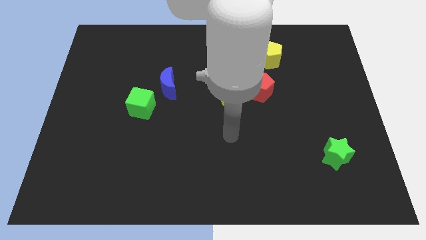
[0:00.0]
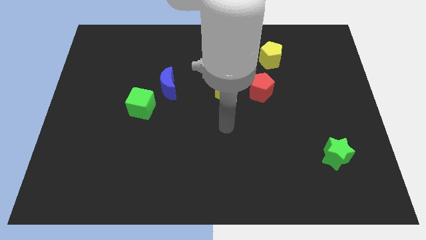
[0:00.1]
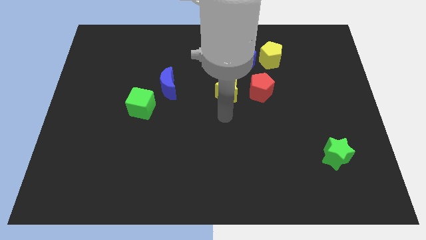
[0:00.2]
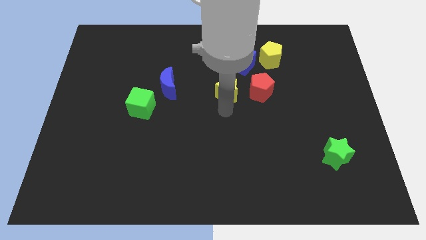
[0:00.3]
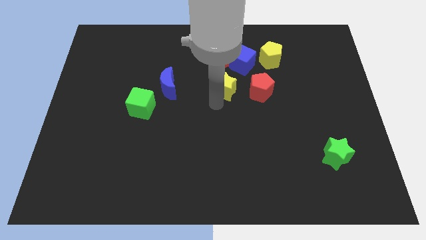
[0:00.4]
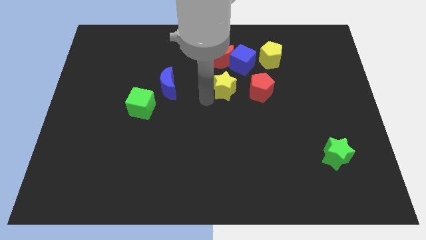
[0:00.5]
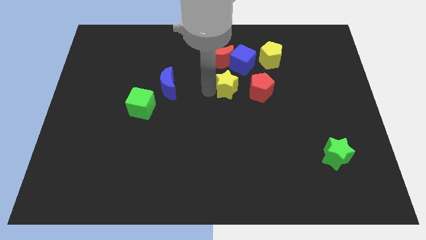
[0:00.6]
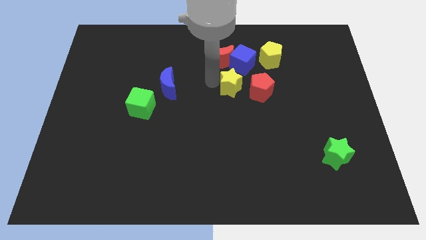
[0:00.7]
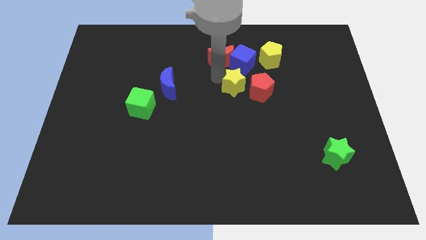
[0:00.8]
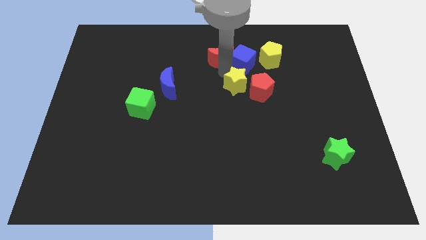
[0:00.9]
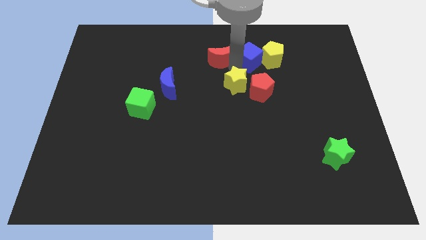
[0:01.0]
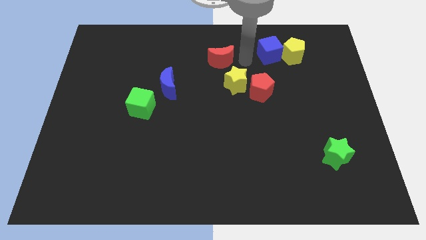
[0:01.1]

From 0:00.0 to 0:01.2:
move the red moon away from the blue cube

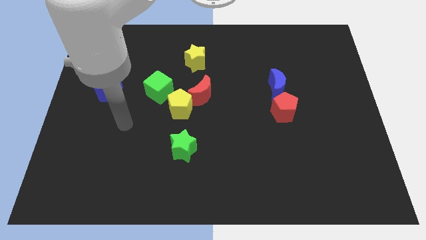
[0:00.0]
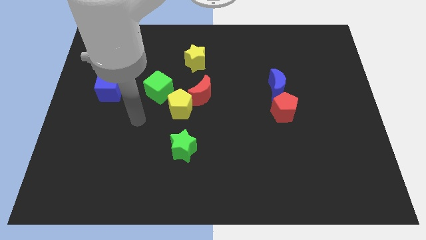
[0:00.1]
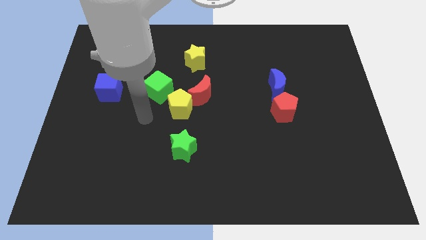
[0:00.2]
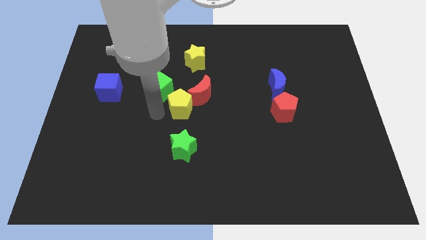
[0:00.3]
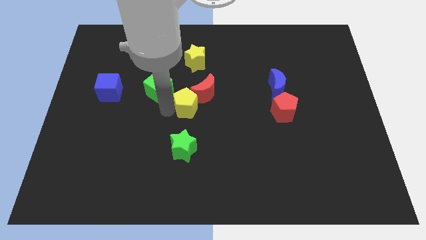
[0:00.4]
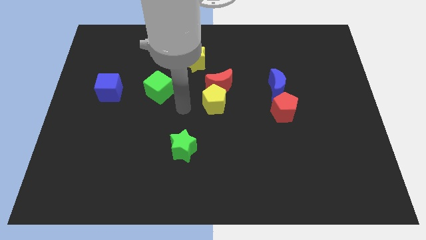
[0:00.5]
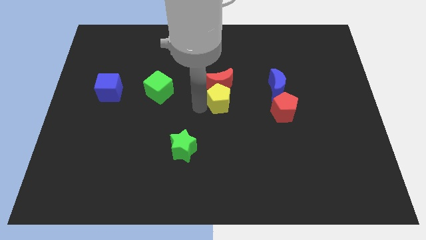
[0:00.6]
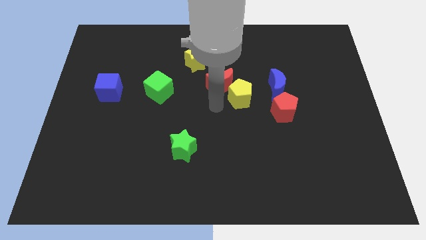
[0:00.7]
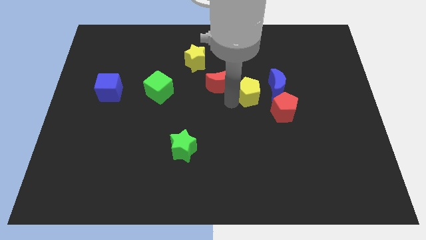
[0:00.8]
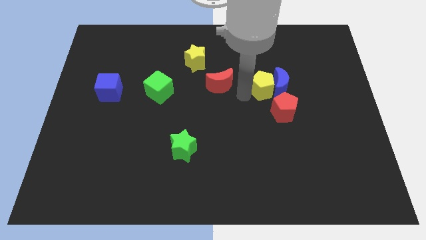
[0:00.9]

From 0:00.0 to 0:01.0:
separate the red moon from the yellow pentagon

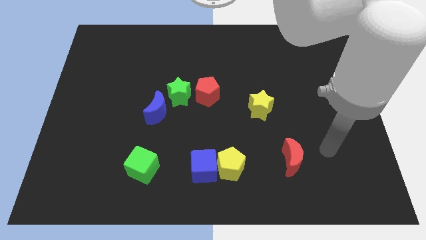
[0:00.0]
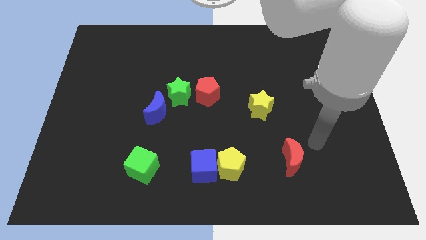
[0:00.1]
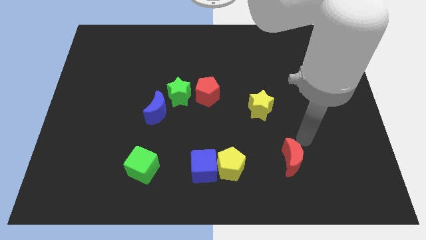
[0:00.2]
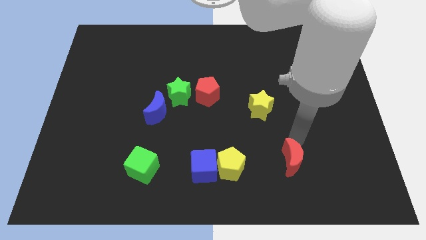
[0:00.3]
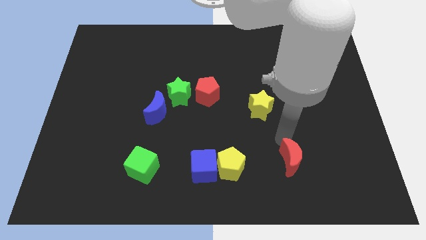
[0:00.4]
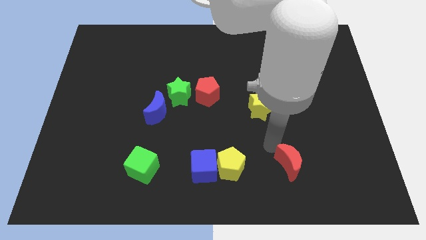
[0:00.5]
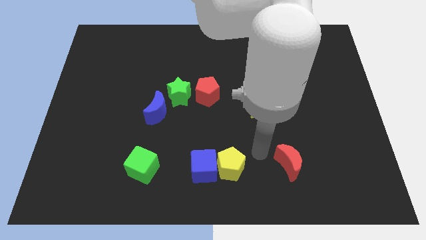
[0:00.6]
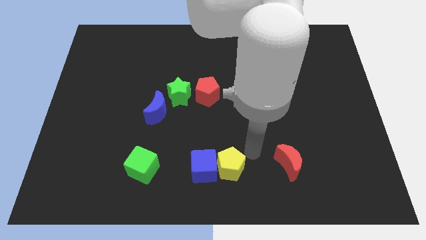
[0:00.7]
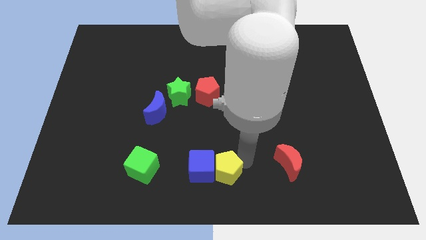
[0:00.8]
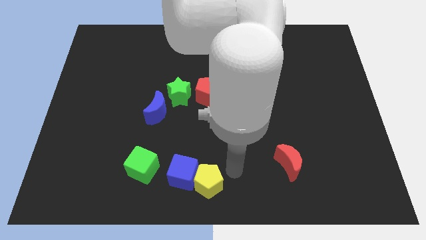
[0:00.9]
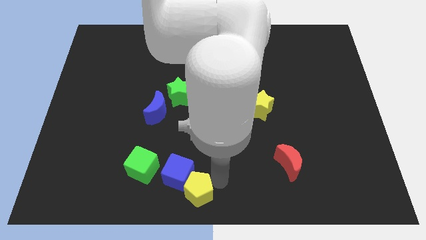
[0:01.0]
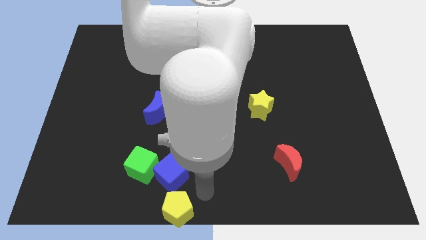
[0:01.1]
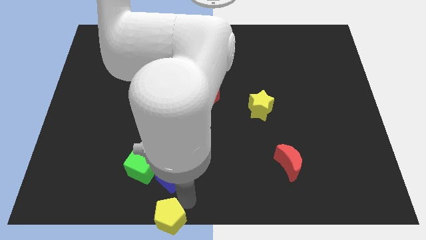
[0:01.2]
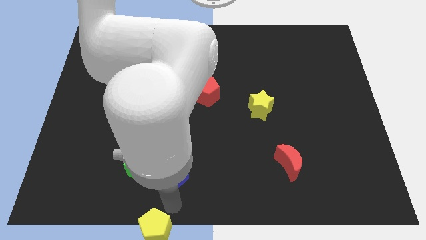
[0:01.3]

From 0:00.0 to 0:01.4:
move the blue cube away from the yellow pentagon

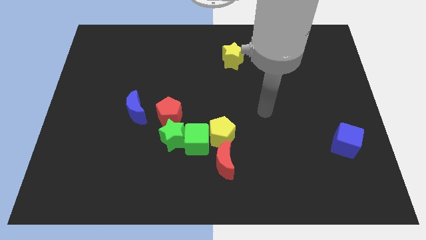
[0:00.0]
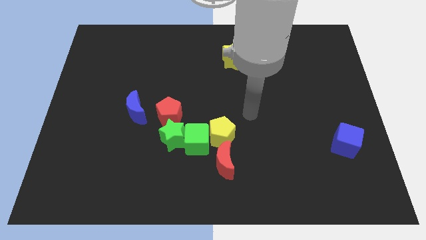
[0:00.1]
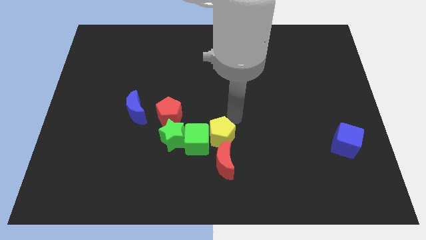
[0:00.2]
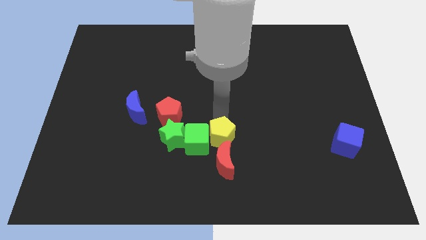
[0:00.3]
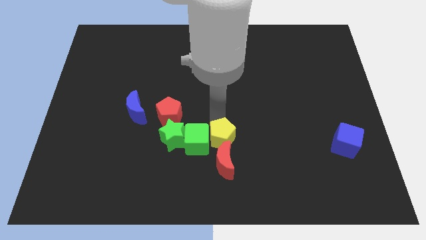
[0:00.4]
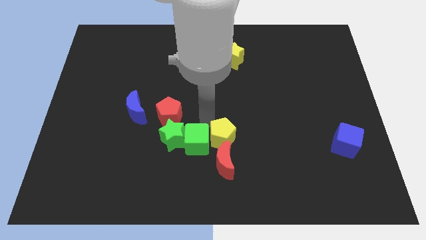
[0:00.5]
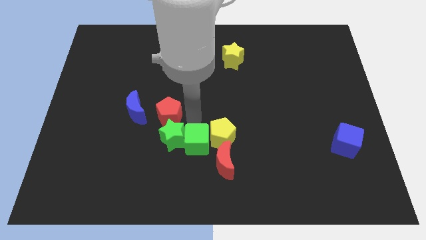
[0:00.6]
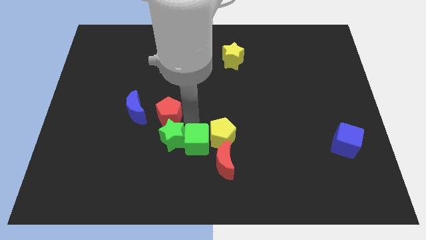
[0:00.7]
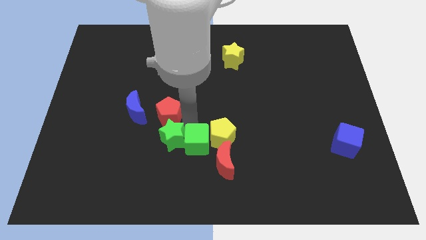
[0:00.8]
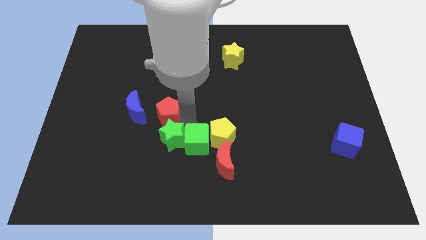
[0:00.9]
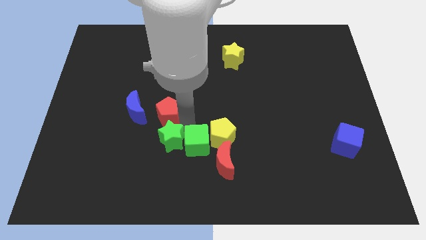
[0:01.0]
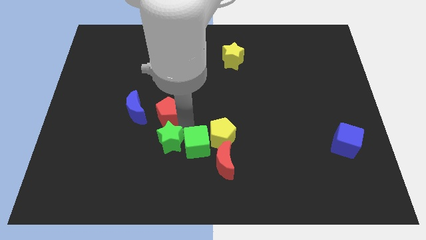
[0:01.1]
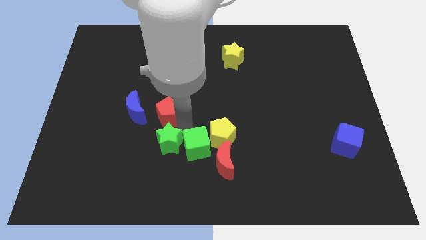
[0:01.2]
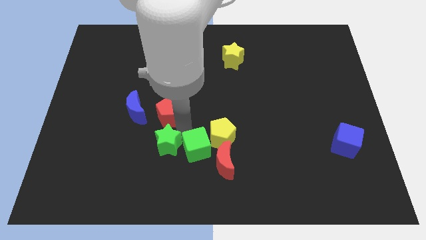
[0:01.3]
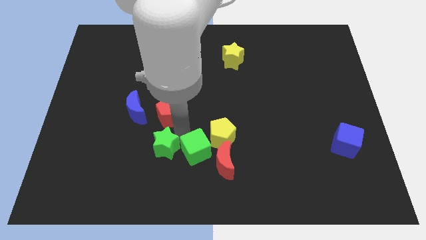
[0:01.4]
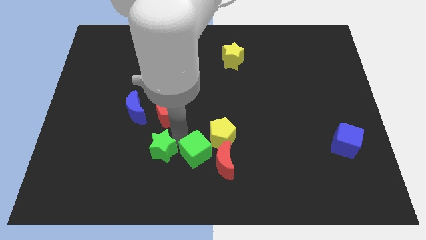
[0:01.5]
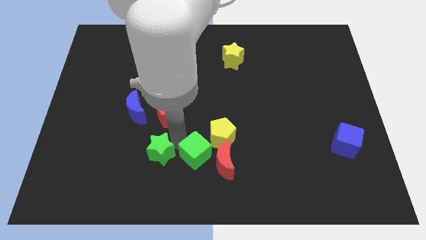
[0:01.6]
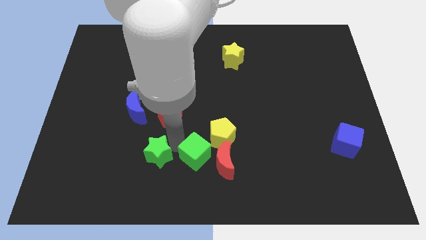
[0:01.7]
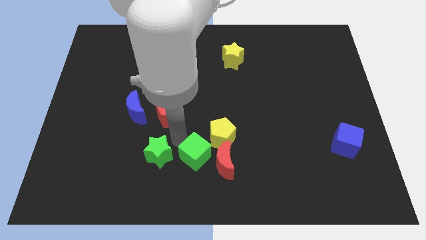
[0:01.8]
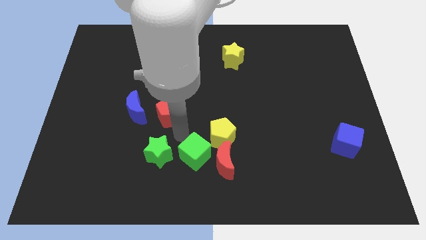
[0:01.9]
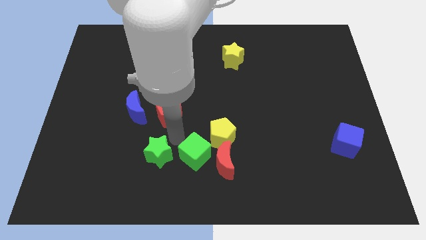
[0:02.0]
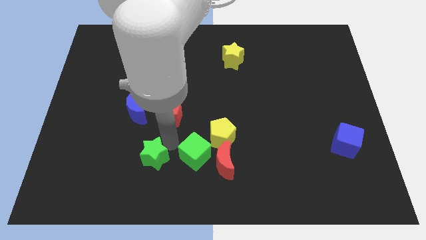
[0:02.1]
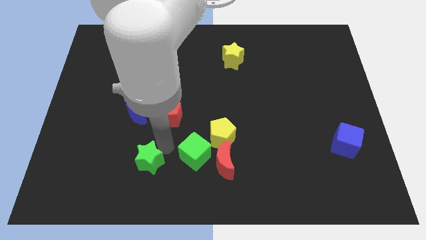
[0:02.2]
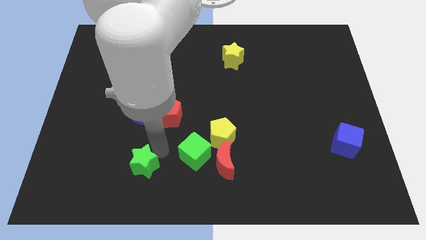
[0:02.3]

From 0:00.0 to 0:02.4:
pull the green star apart from the green cube and red pentagon

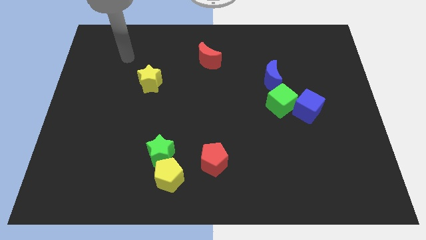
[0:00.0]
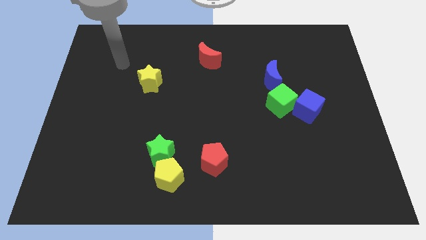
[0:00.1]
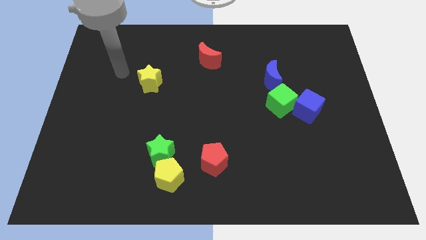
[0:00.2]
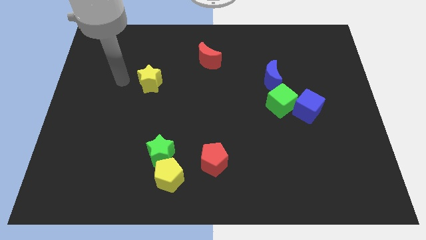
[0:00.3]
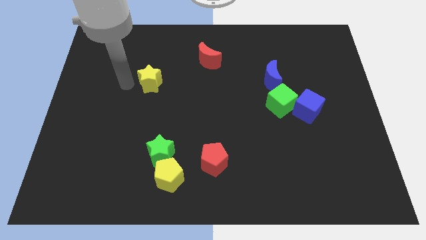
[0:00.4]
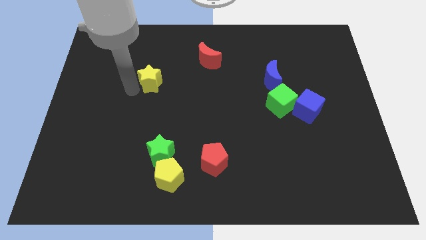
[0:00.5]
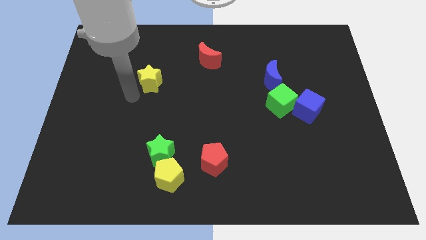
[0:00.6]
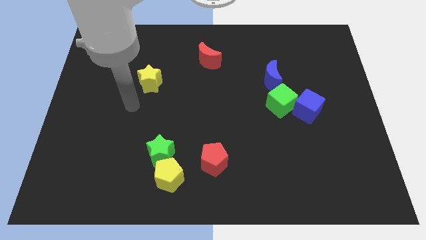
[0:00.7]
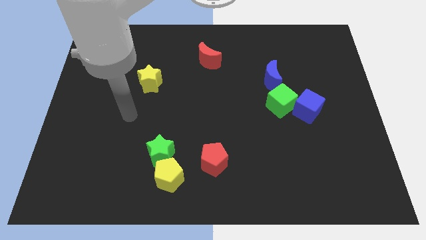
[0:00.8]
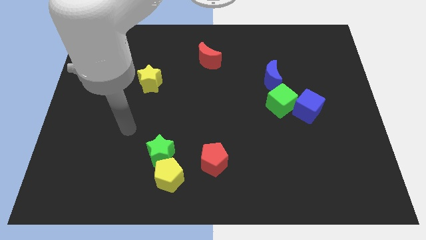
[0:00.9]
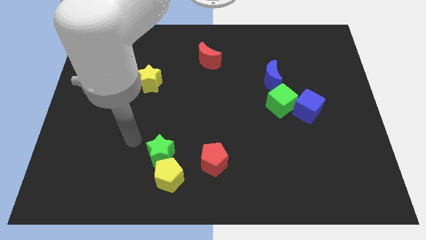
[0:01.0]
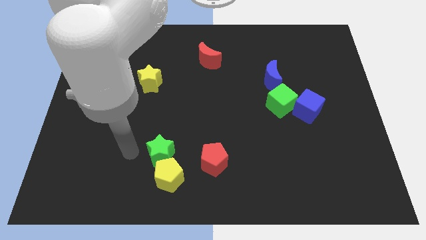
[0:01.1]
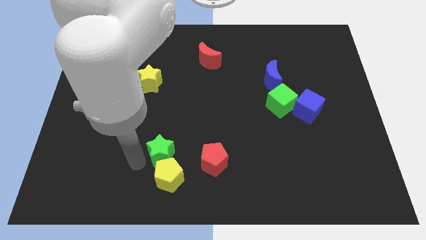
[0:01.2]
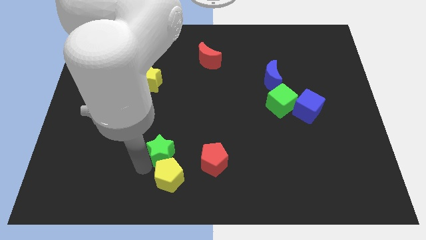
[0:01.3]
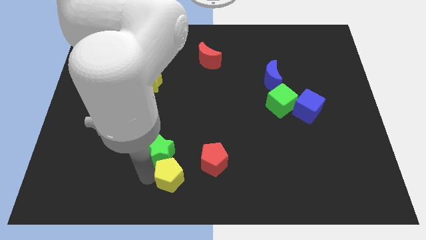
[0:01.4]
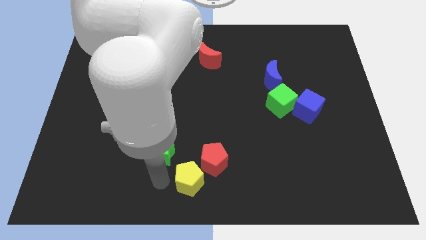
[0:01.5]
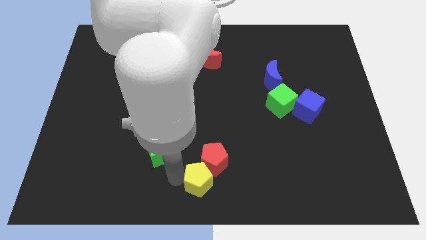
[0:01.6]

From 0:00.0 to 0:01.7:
pull the green star apart from the yellow pentagon

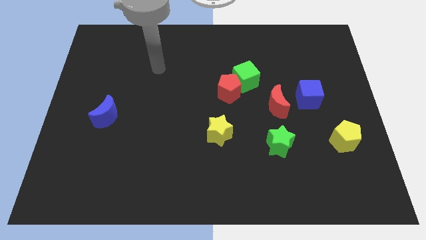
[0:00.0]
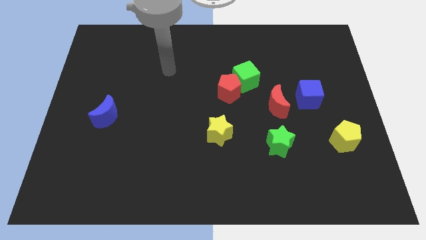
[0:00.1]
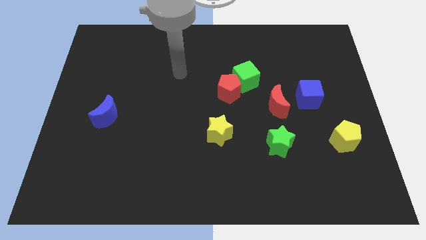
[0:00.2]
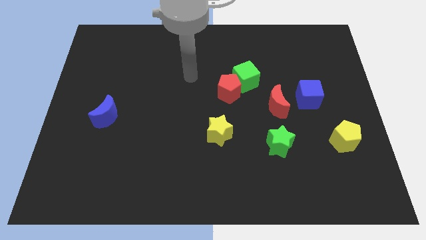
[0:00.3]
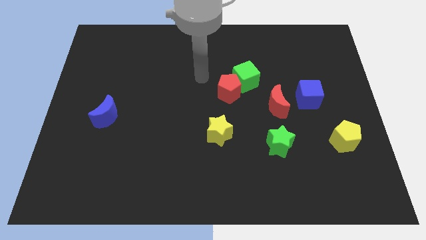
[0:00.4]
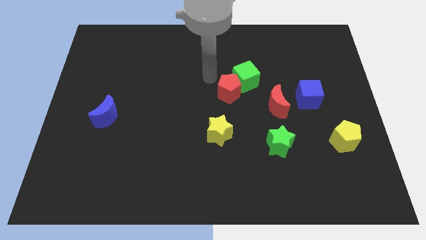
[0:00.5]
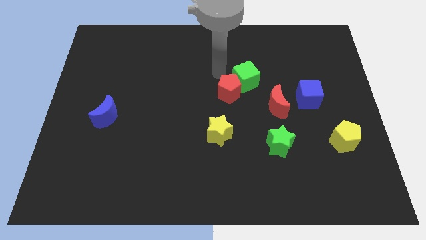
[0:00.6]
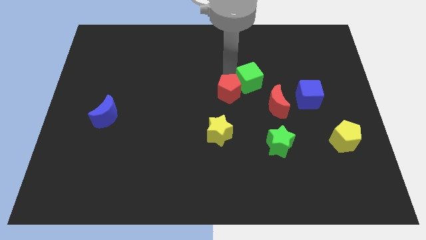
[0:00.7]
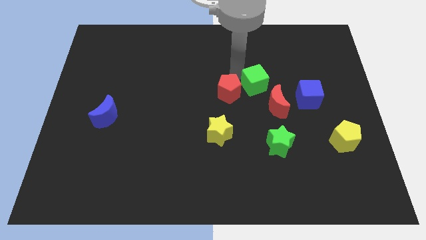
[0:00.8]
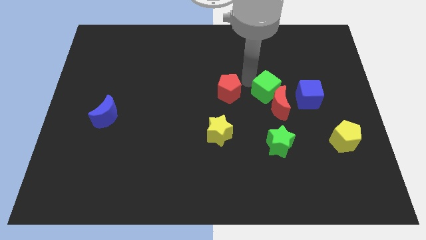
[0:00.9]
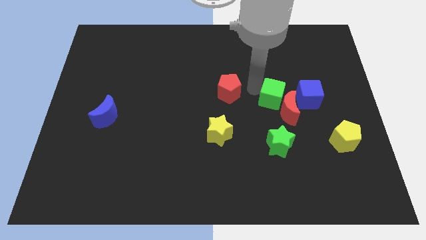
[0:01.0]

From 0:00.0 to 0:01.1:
pull the red pentagon apart from the green cube

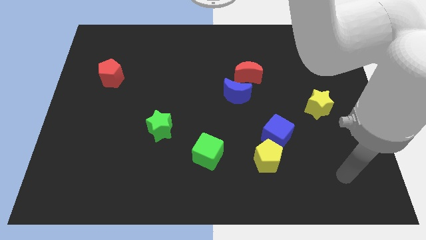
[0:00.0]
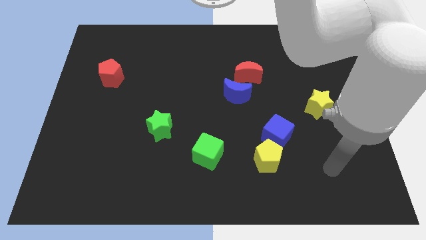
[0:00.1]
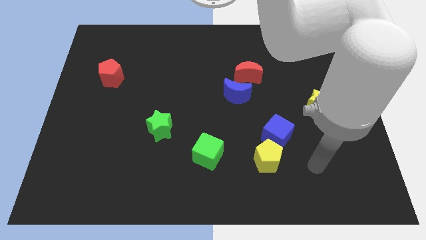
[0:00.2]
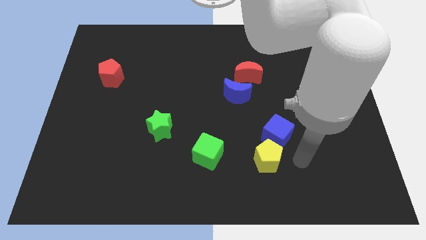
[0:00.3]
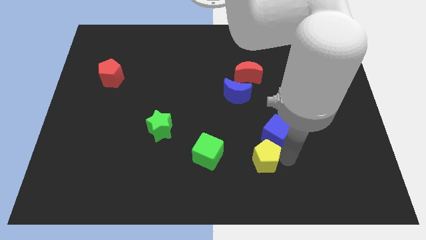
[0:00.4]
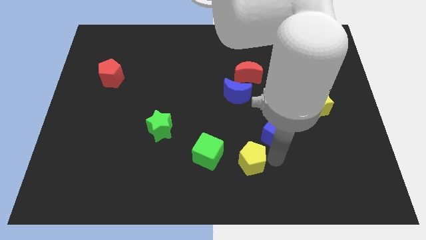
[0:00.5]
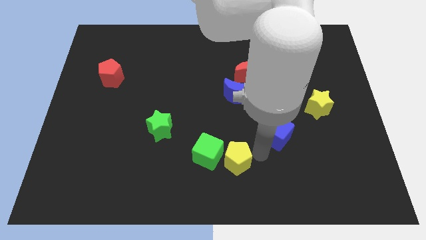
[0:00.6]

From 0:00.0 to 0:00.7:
pull the blue cube apart from the yellow pentagon
